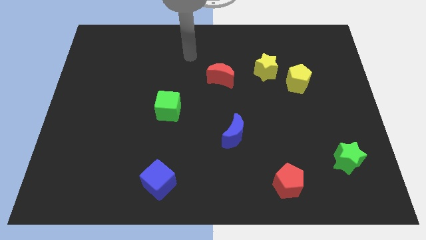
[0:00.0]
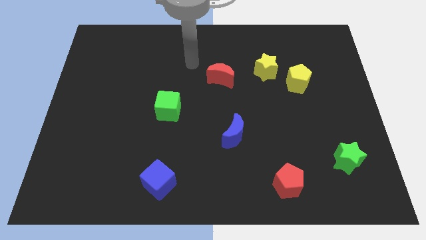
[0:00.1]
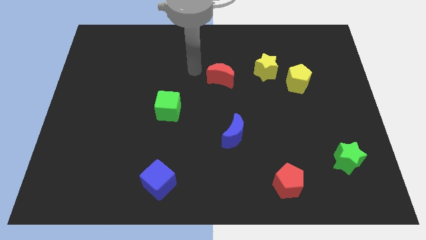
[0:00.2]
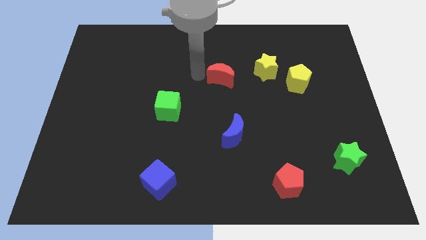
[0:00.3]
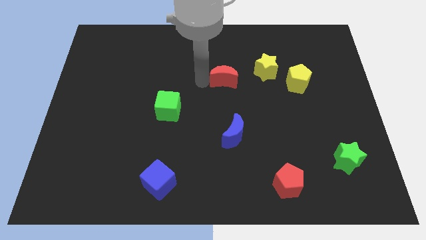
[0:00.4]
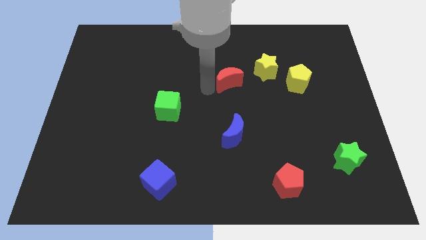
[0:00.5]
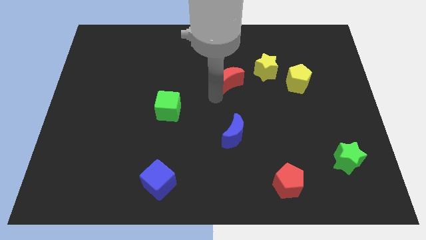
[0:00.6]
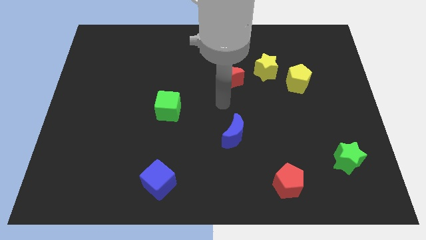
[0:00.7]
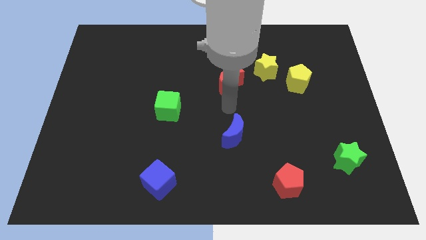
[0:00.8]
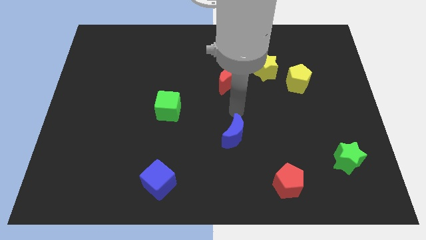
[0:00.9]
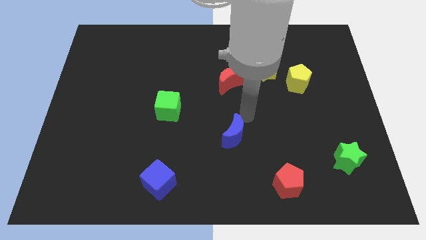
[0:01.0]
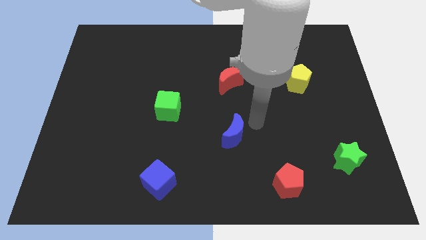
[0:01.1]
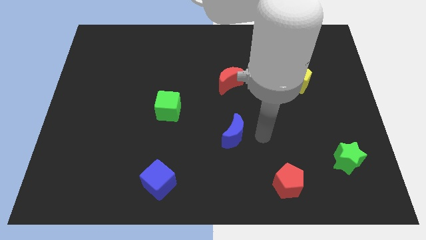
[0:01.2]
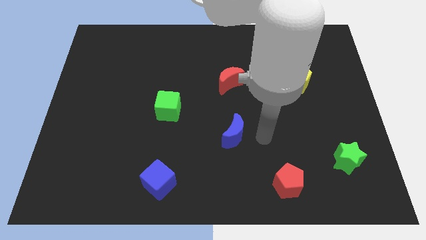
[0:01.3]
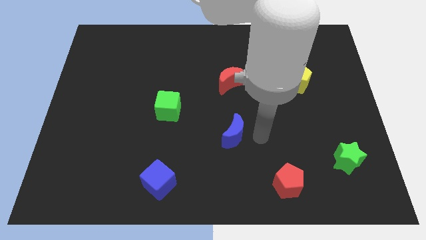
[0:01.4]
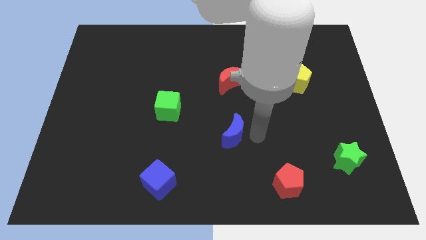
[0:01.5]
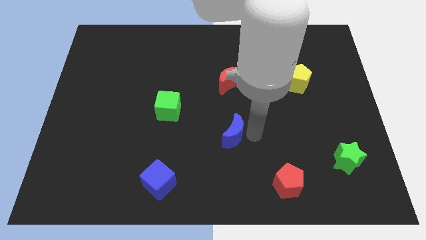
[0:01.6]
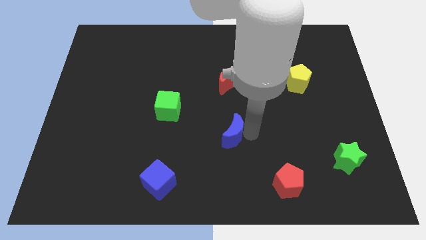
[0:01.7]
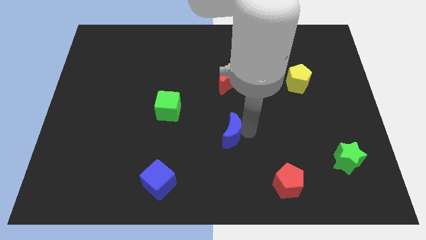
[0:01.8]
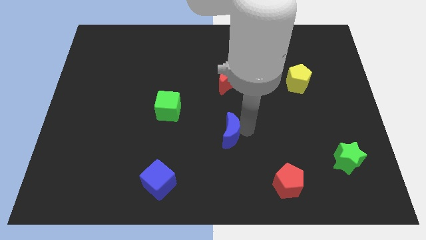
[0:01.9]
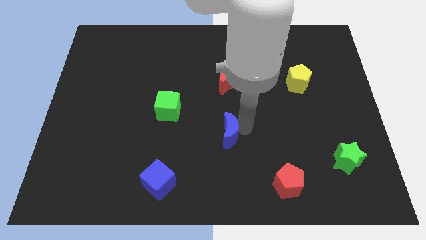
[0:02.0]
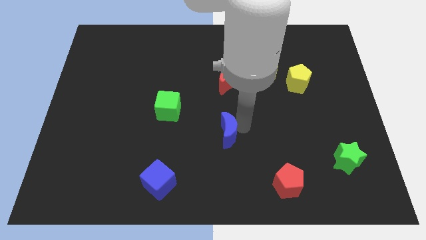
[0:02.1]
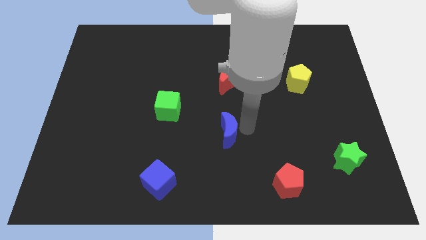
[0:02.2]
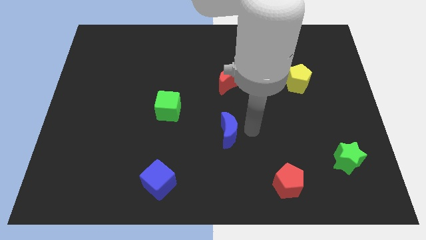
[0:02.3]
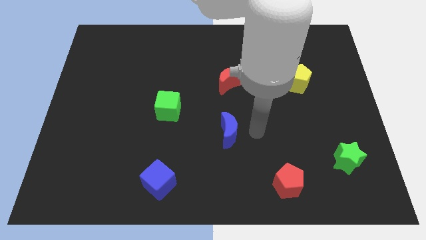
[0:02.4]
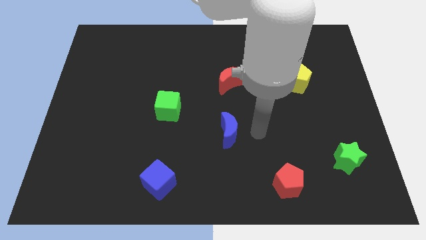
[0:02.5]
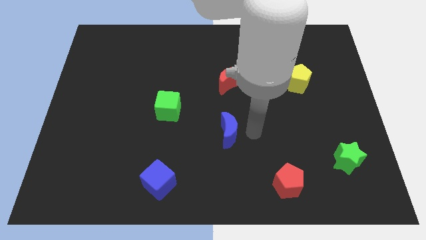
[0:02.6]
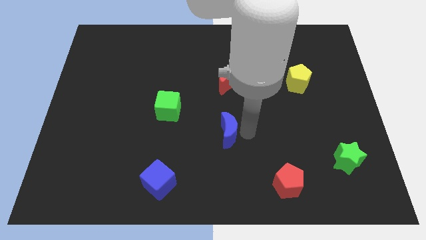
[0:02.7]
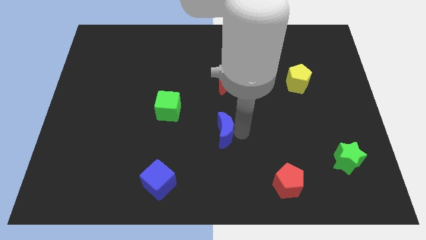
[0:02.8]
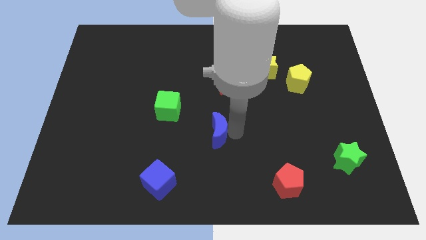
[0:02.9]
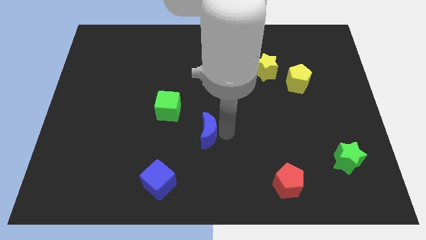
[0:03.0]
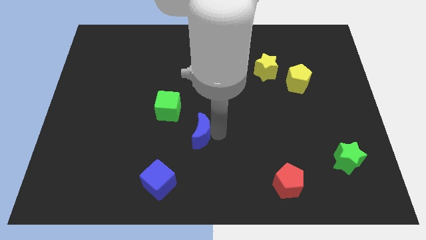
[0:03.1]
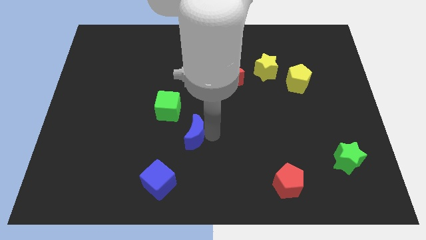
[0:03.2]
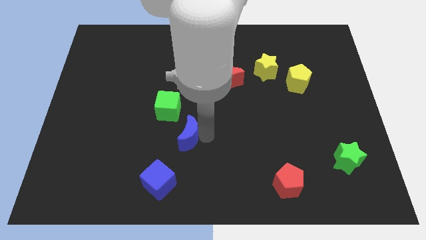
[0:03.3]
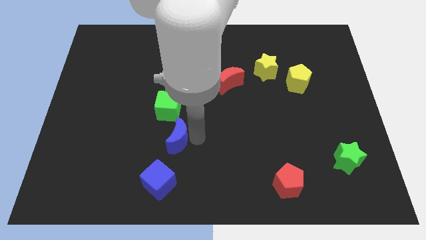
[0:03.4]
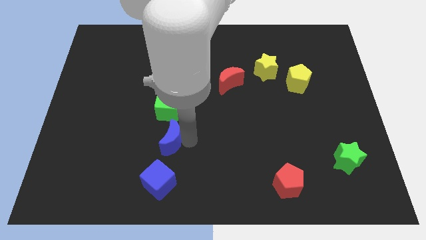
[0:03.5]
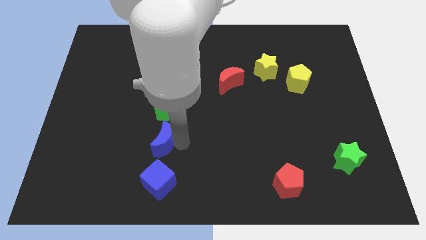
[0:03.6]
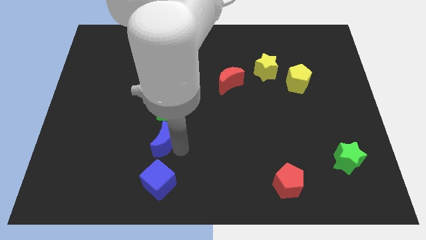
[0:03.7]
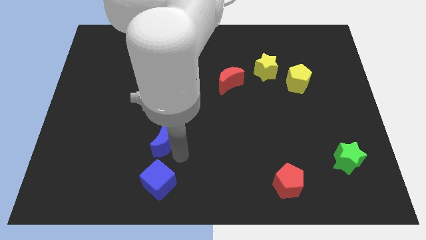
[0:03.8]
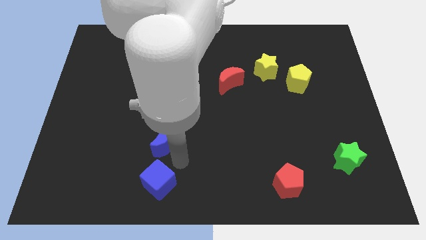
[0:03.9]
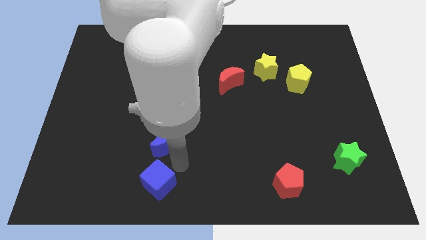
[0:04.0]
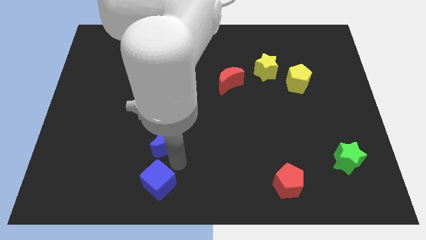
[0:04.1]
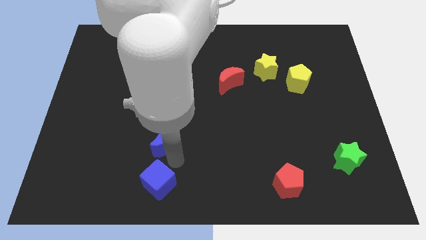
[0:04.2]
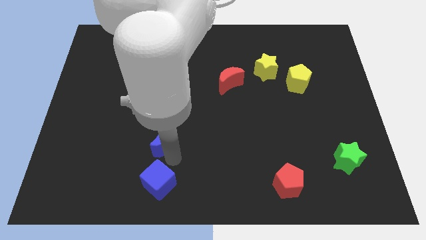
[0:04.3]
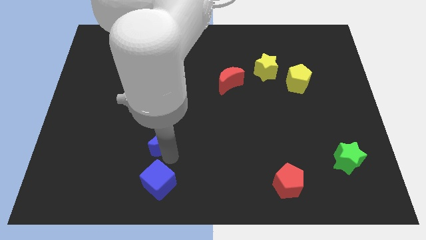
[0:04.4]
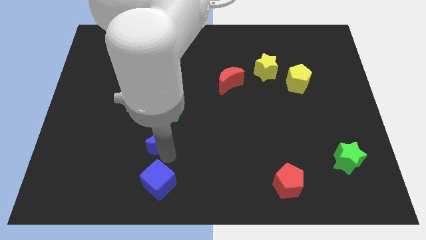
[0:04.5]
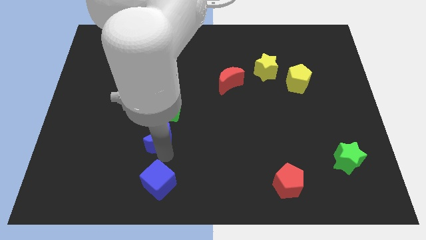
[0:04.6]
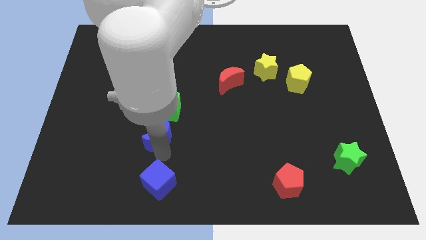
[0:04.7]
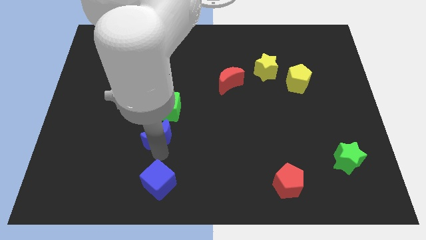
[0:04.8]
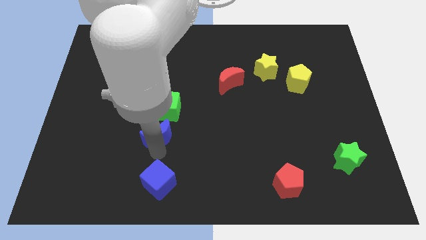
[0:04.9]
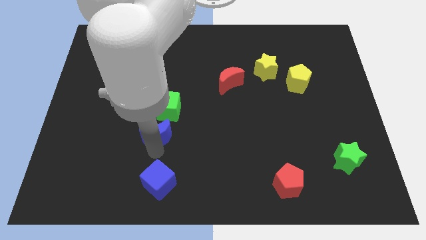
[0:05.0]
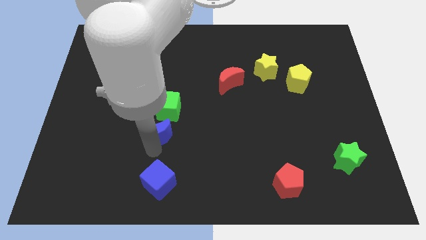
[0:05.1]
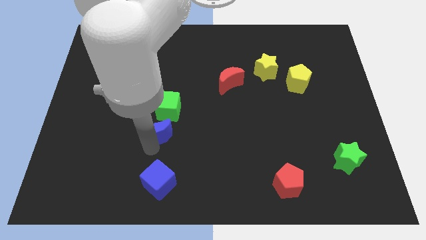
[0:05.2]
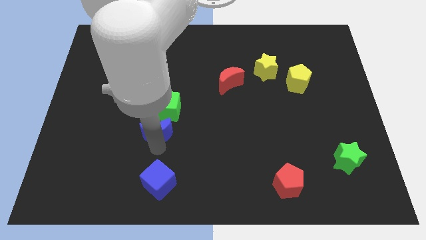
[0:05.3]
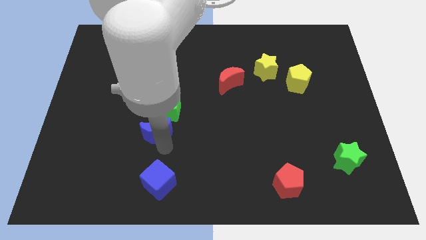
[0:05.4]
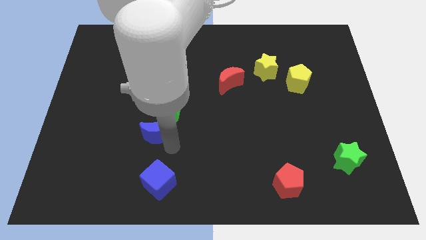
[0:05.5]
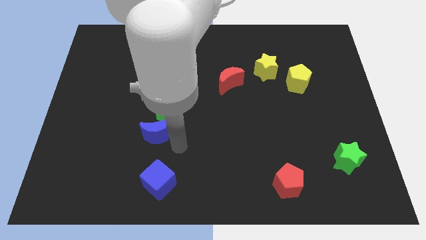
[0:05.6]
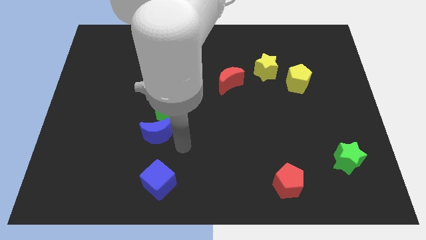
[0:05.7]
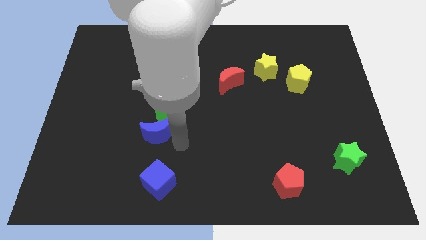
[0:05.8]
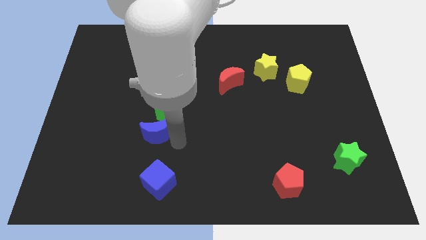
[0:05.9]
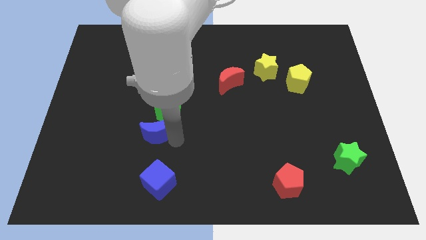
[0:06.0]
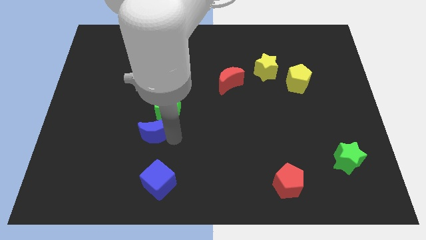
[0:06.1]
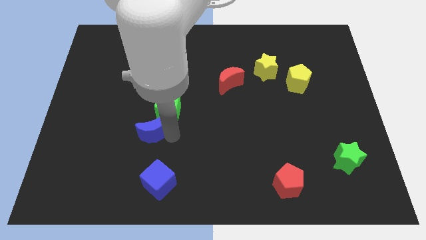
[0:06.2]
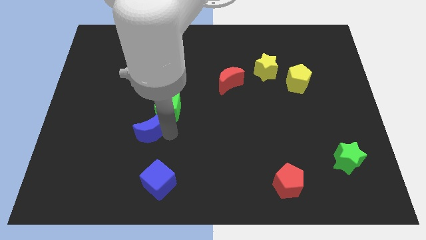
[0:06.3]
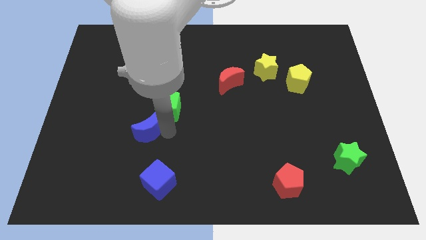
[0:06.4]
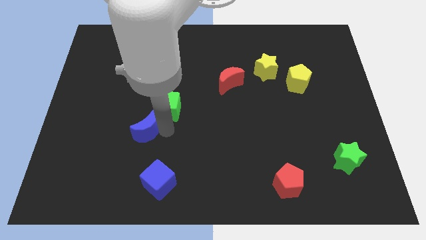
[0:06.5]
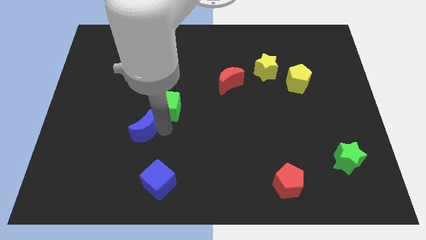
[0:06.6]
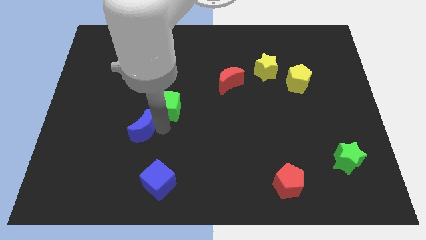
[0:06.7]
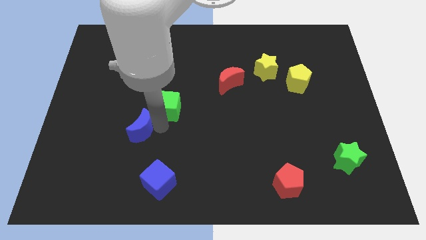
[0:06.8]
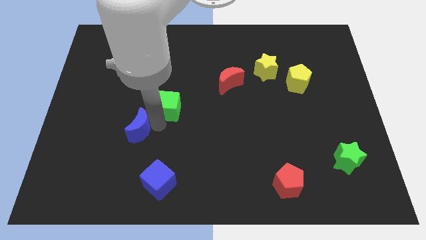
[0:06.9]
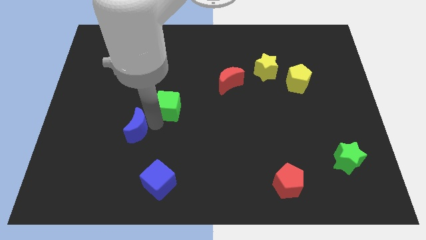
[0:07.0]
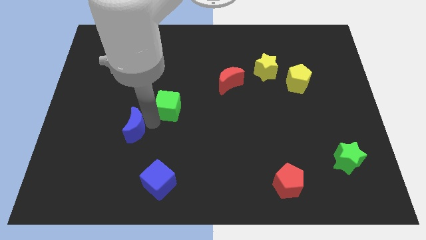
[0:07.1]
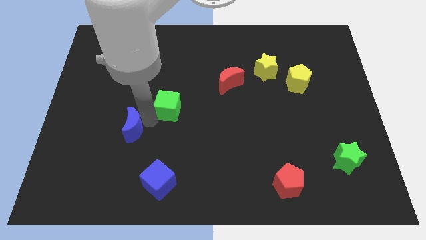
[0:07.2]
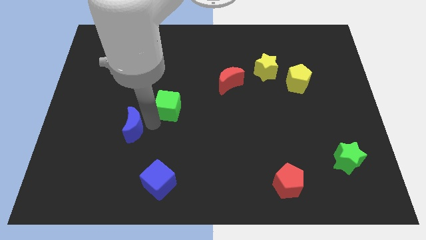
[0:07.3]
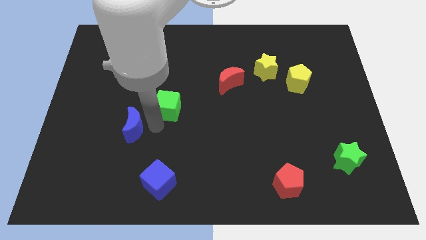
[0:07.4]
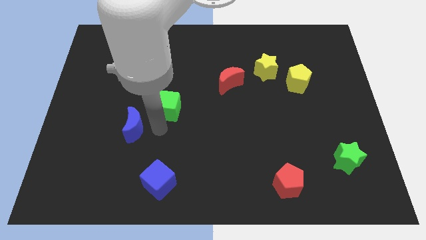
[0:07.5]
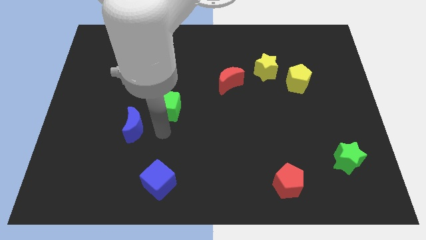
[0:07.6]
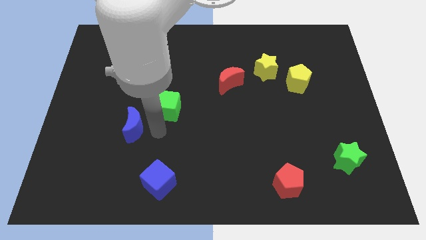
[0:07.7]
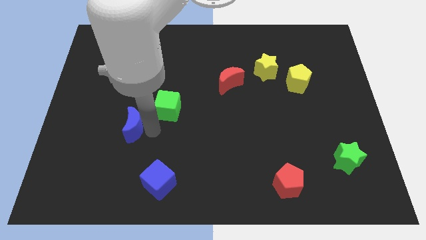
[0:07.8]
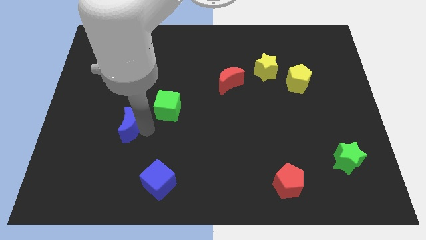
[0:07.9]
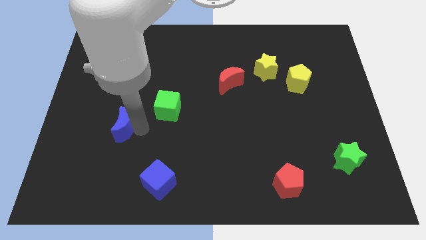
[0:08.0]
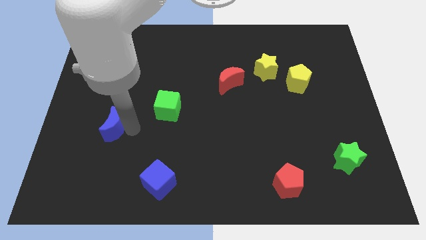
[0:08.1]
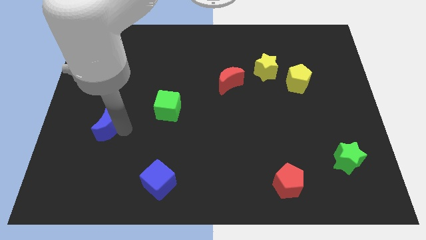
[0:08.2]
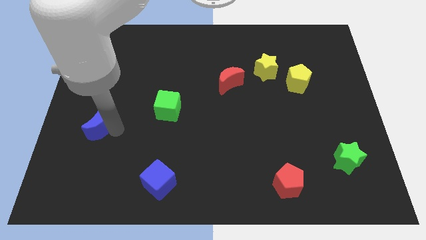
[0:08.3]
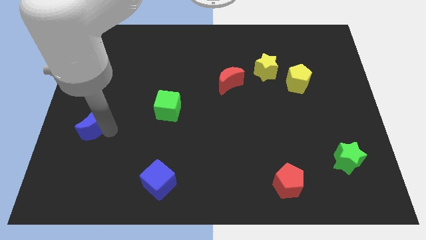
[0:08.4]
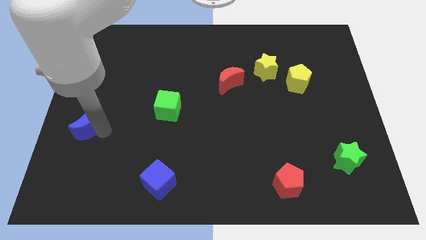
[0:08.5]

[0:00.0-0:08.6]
slide the blue moon to the left side of the board
